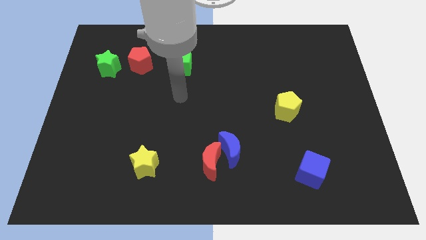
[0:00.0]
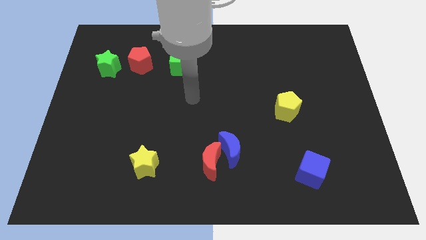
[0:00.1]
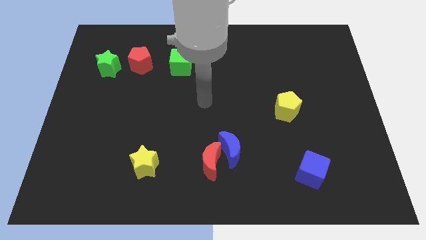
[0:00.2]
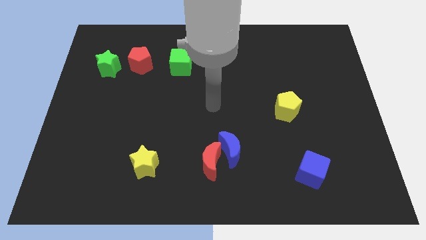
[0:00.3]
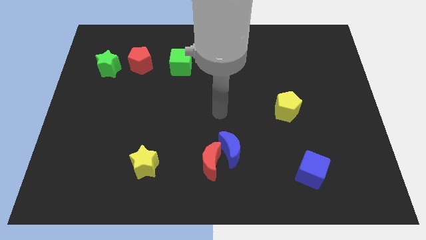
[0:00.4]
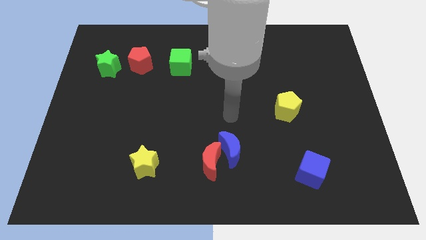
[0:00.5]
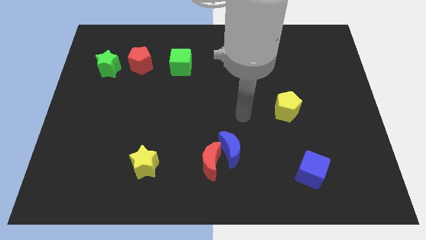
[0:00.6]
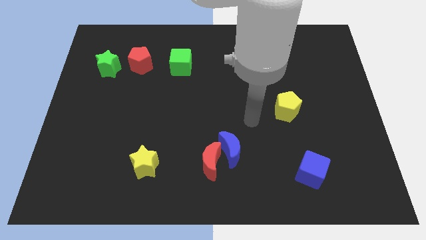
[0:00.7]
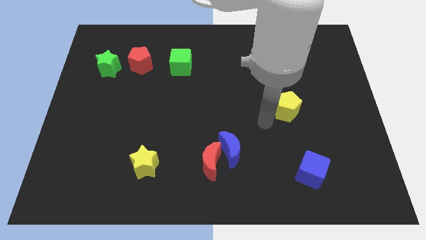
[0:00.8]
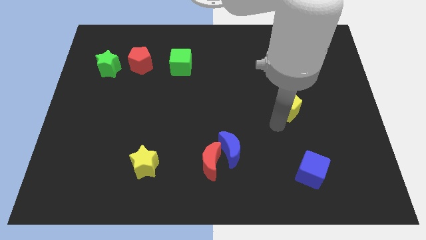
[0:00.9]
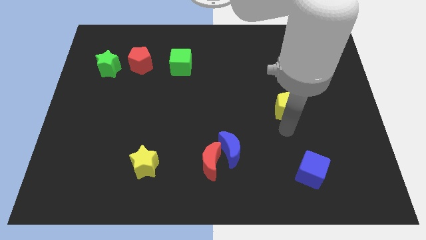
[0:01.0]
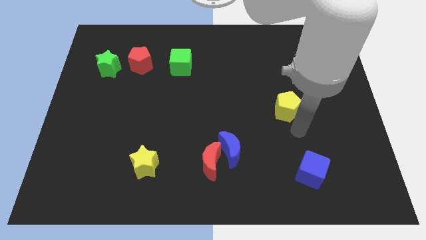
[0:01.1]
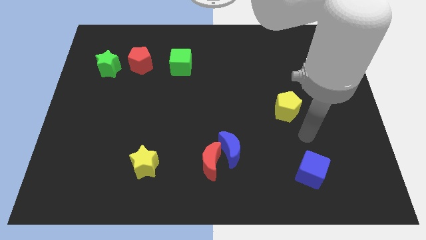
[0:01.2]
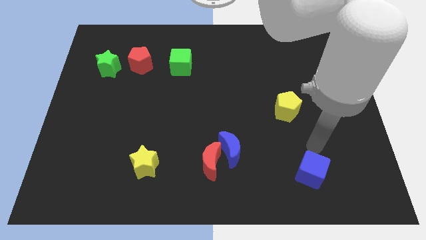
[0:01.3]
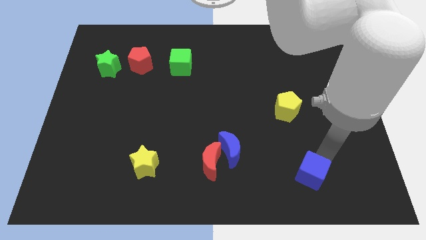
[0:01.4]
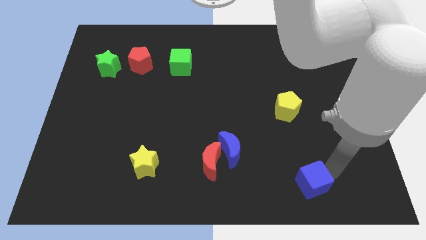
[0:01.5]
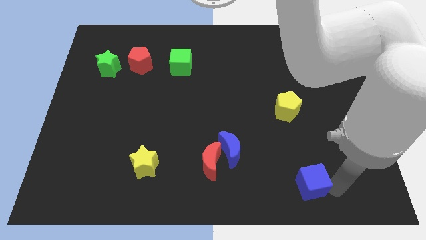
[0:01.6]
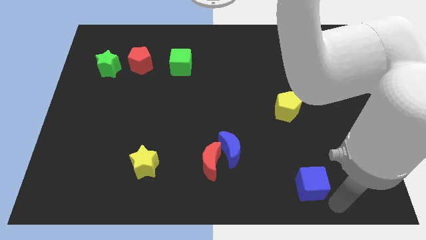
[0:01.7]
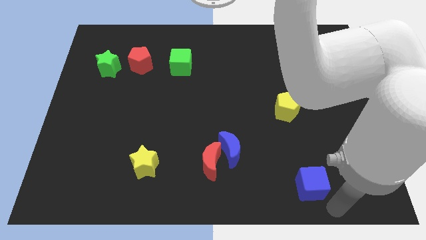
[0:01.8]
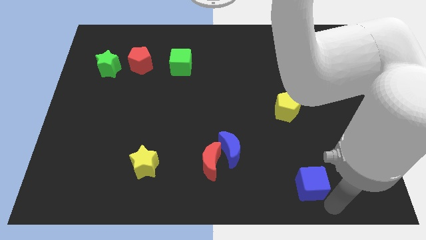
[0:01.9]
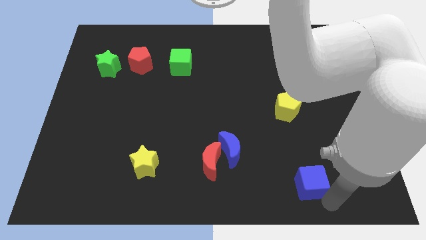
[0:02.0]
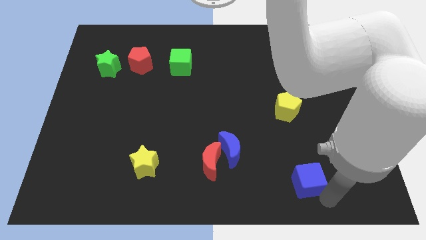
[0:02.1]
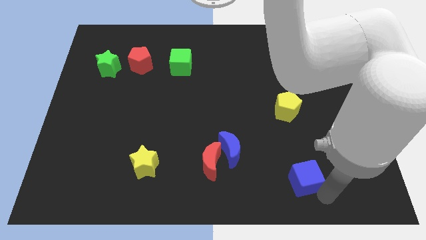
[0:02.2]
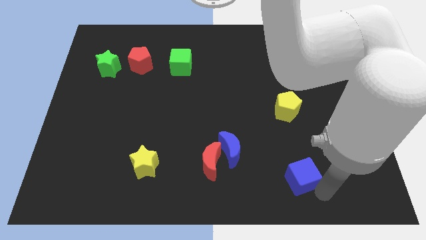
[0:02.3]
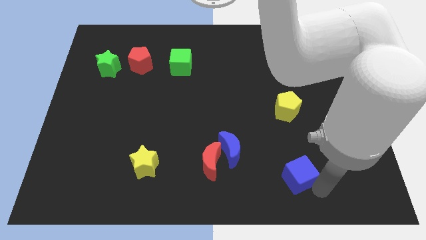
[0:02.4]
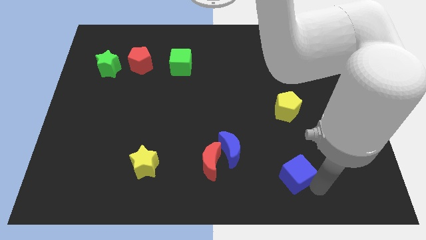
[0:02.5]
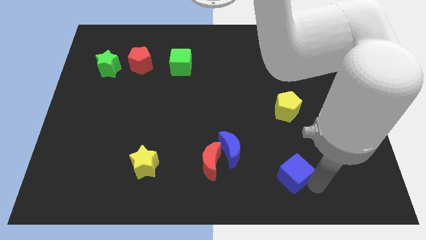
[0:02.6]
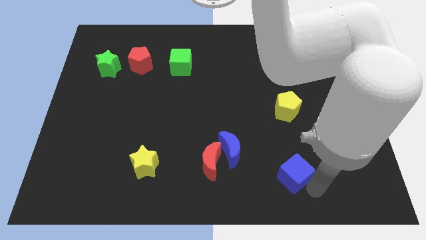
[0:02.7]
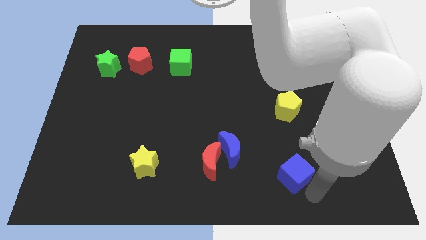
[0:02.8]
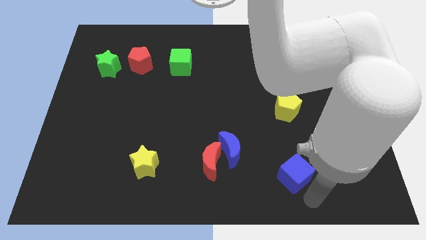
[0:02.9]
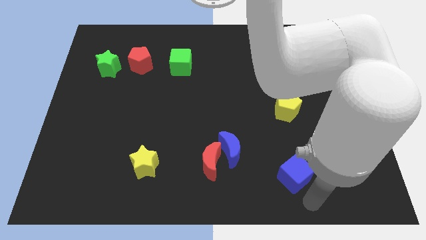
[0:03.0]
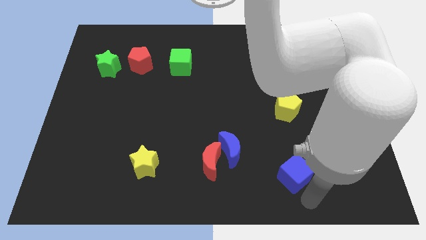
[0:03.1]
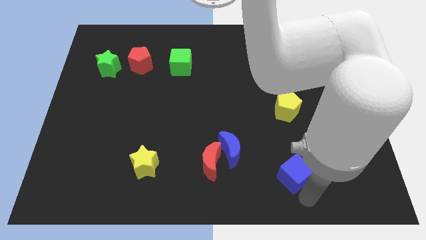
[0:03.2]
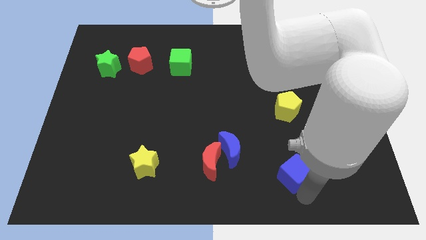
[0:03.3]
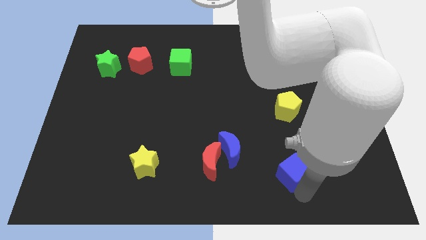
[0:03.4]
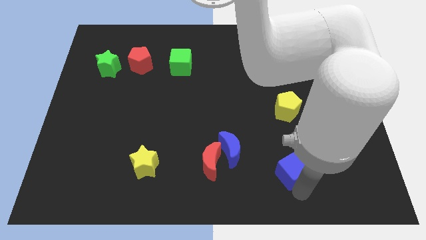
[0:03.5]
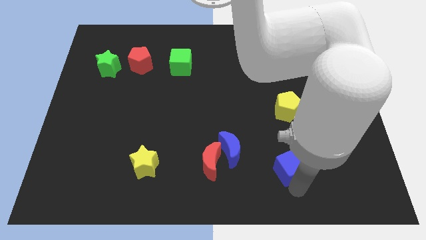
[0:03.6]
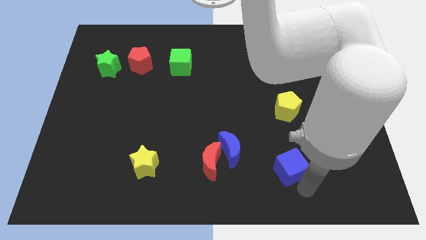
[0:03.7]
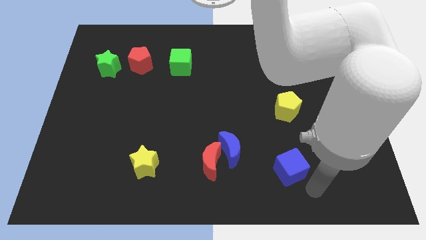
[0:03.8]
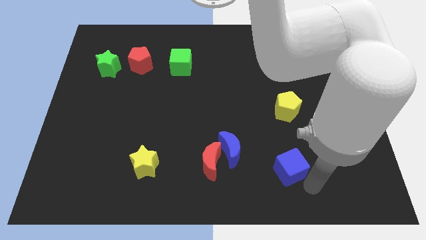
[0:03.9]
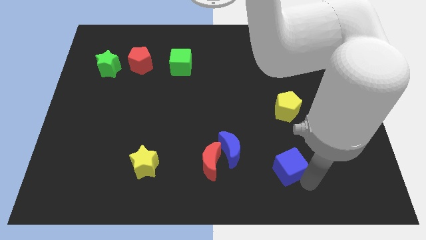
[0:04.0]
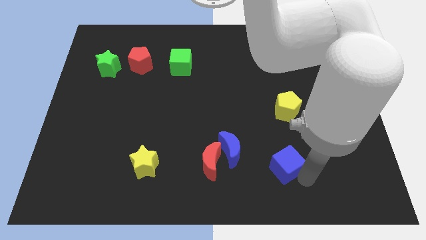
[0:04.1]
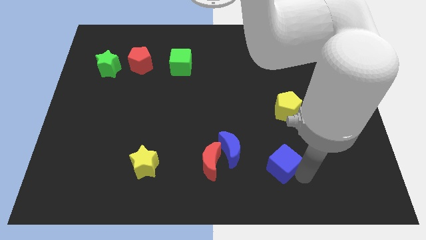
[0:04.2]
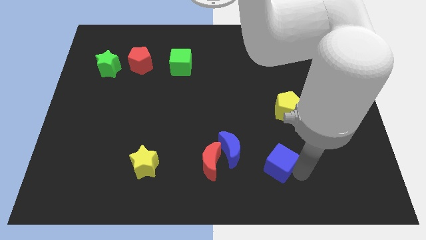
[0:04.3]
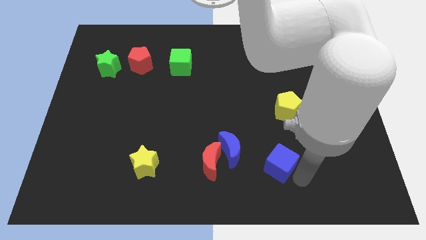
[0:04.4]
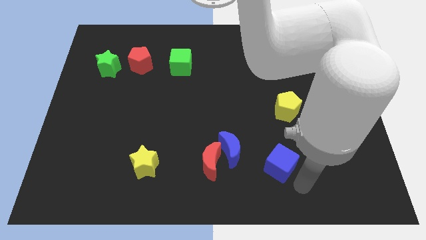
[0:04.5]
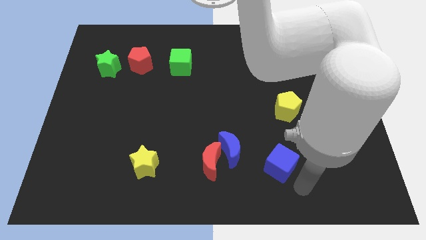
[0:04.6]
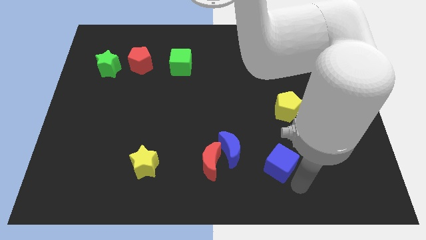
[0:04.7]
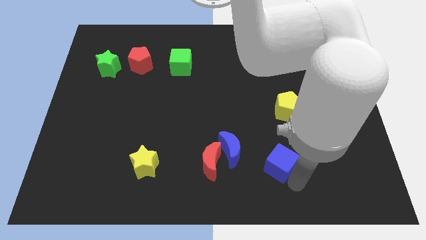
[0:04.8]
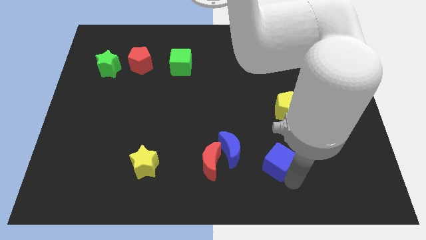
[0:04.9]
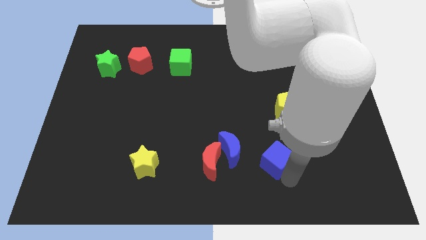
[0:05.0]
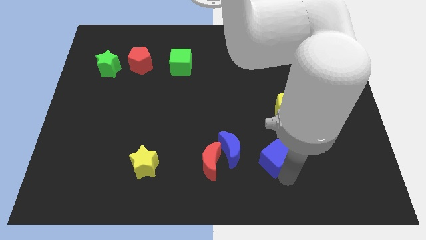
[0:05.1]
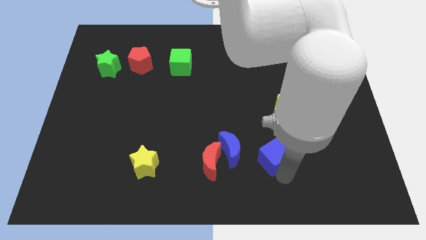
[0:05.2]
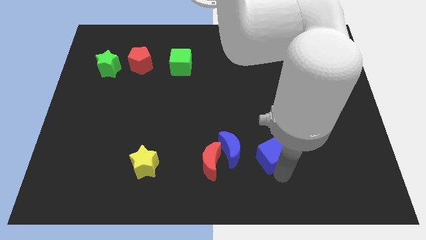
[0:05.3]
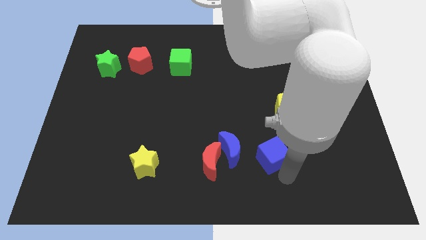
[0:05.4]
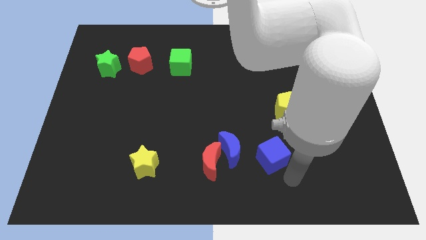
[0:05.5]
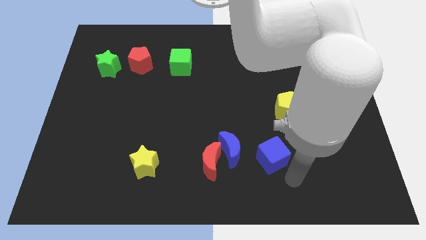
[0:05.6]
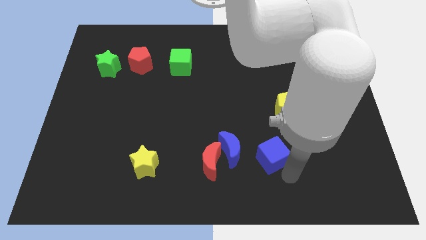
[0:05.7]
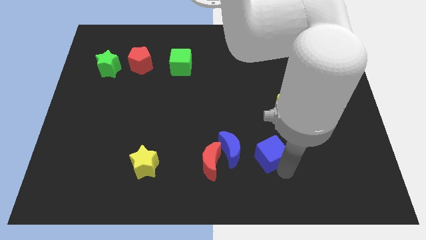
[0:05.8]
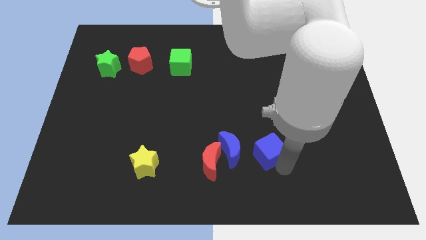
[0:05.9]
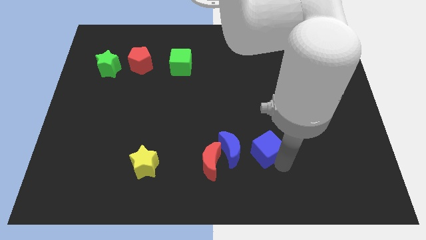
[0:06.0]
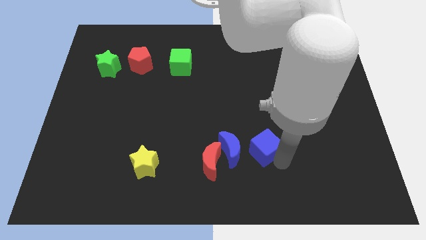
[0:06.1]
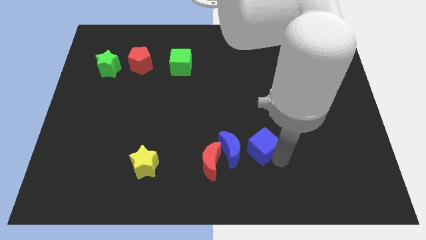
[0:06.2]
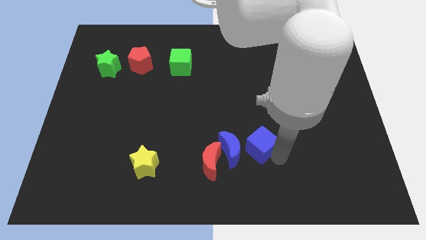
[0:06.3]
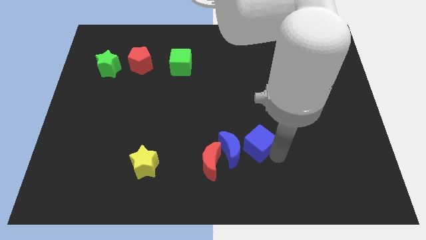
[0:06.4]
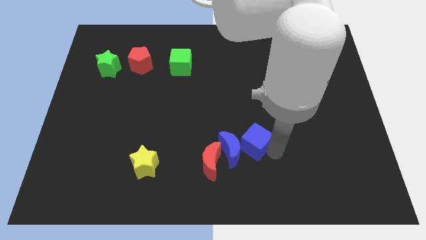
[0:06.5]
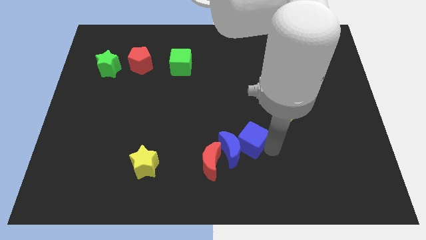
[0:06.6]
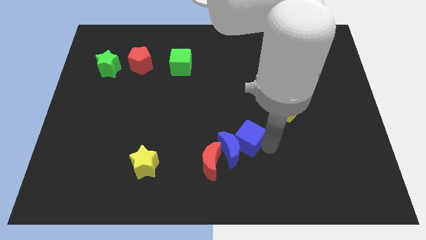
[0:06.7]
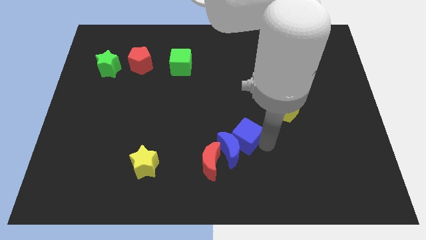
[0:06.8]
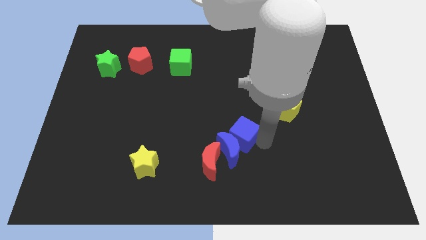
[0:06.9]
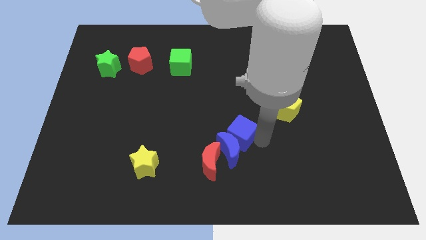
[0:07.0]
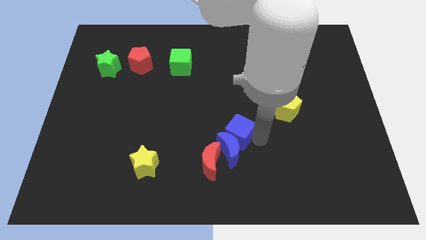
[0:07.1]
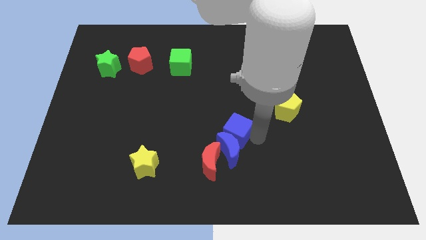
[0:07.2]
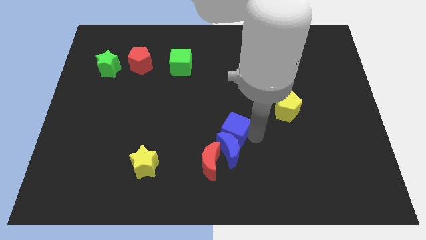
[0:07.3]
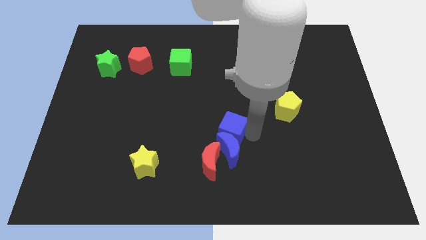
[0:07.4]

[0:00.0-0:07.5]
slide the blue cube to the top of the red moon

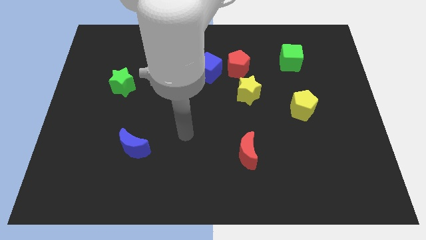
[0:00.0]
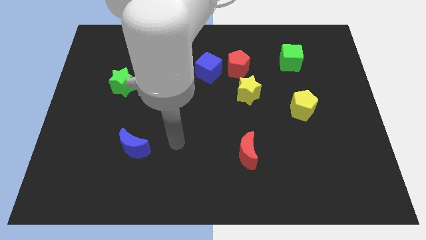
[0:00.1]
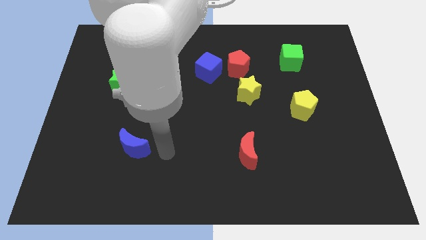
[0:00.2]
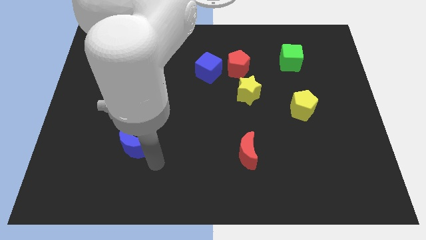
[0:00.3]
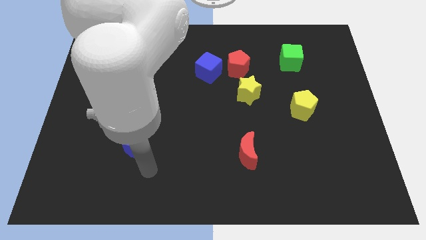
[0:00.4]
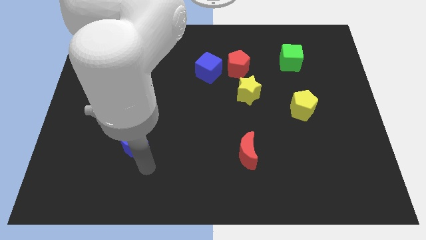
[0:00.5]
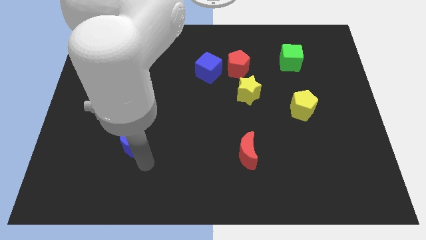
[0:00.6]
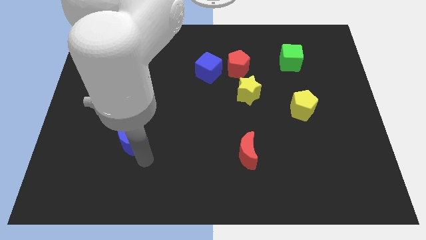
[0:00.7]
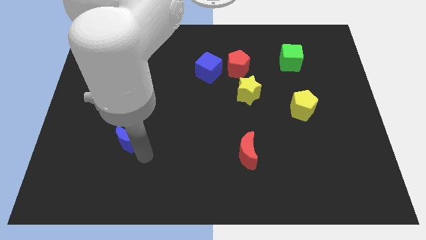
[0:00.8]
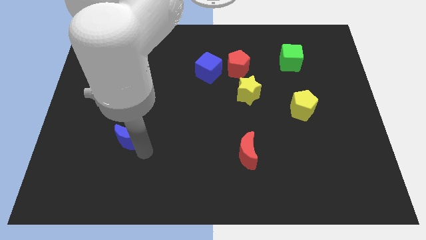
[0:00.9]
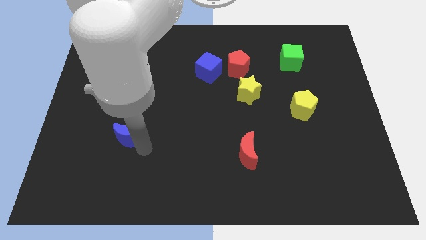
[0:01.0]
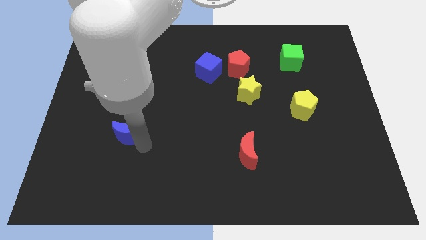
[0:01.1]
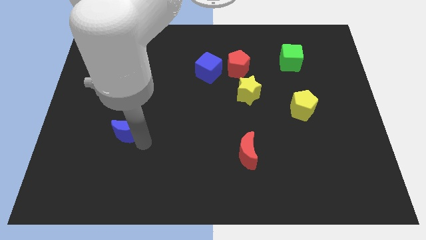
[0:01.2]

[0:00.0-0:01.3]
push the blue moon to the bottom side of the green star
